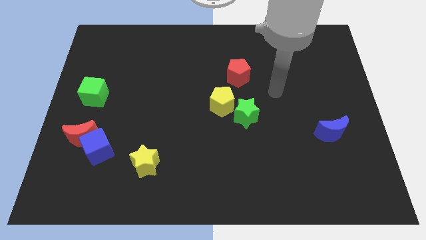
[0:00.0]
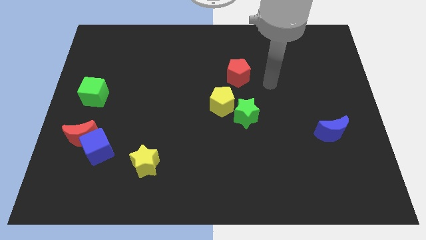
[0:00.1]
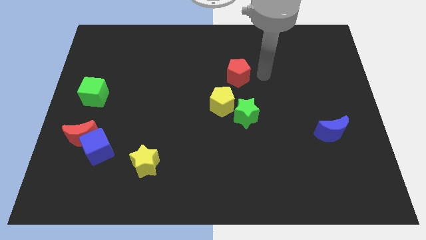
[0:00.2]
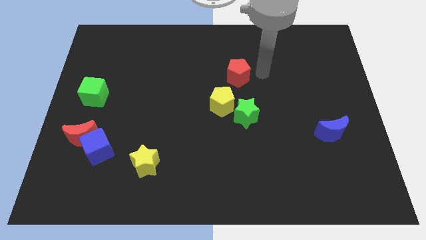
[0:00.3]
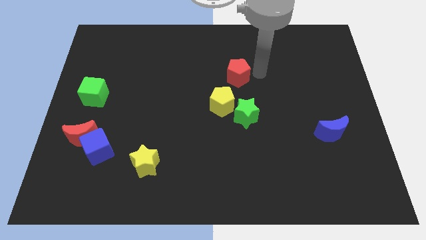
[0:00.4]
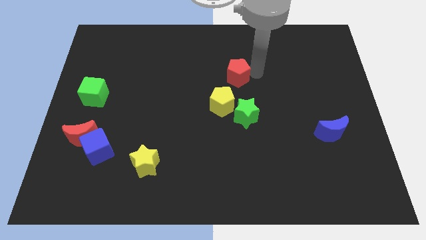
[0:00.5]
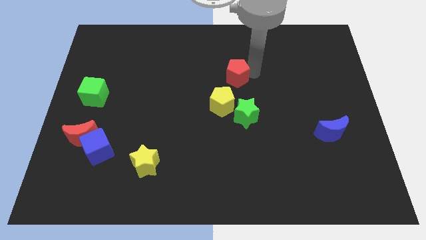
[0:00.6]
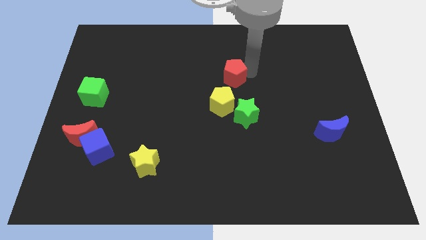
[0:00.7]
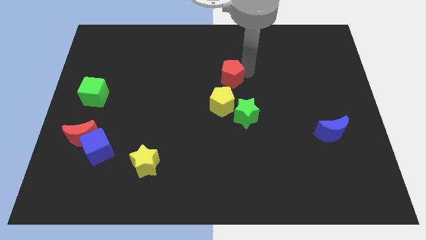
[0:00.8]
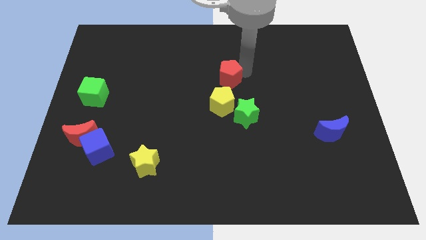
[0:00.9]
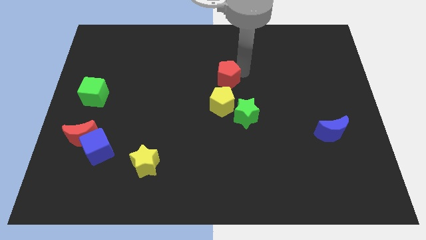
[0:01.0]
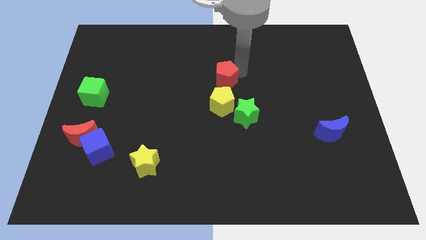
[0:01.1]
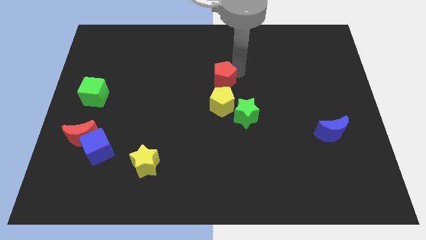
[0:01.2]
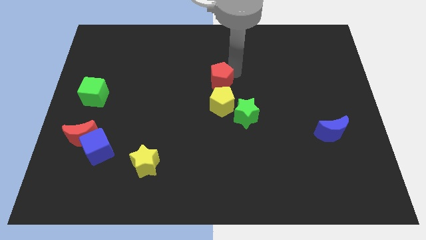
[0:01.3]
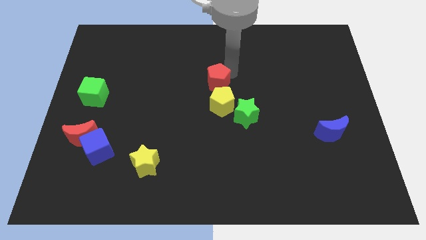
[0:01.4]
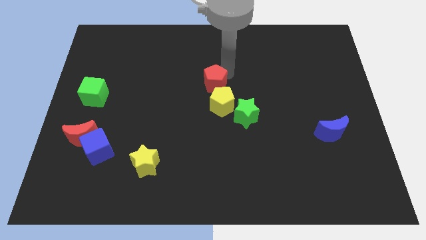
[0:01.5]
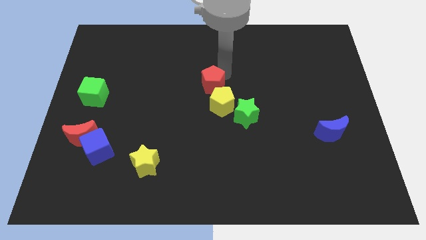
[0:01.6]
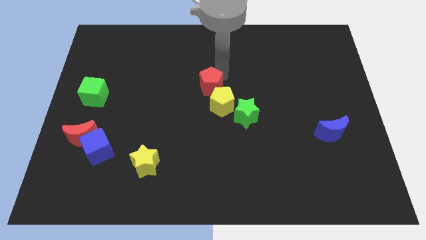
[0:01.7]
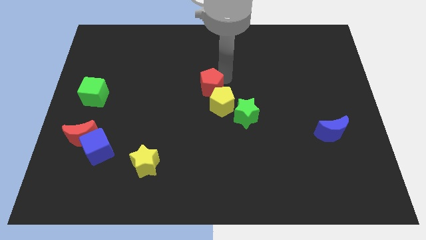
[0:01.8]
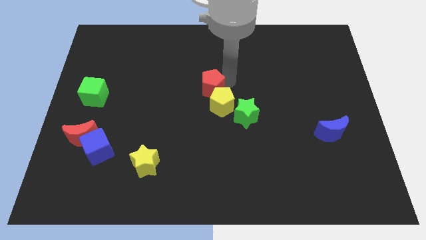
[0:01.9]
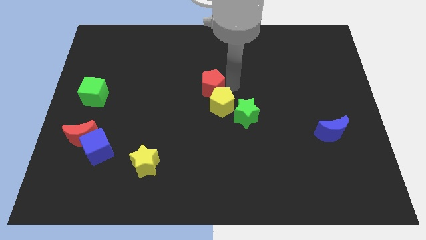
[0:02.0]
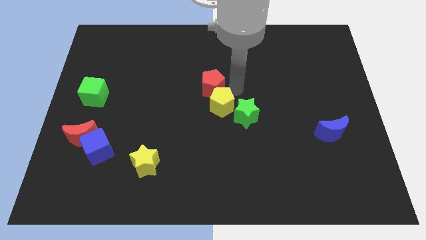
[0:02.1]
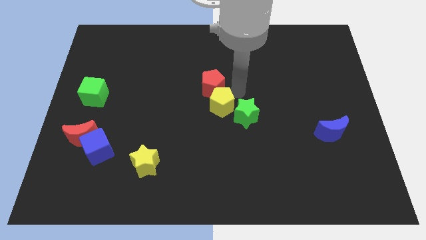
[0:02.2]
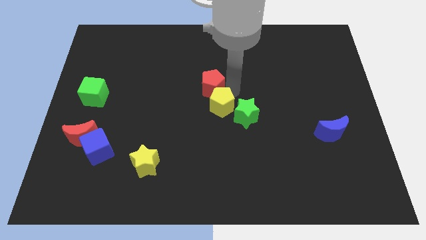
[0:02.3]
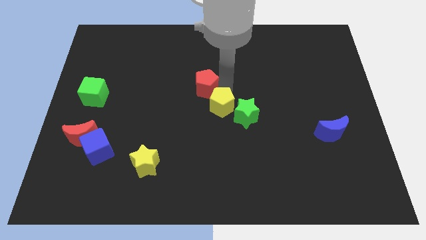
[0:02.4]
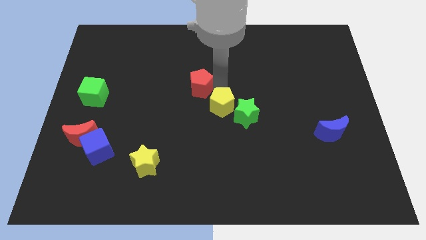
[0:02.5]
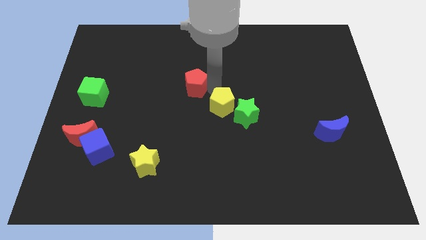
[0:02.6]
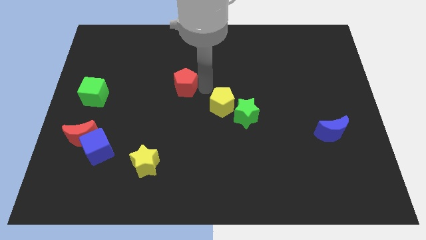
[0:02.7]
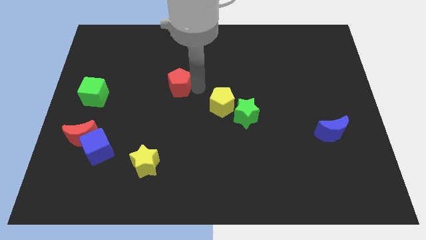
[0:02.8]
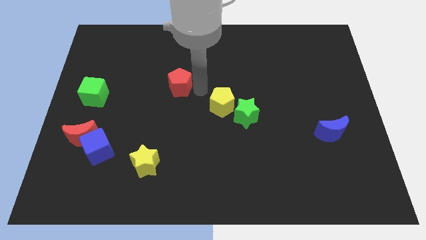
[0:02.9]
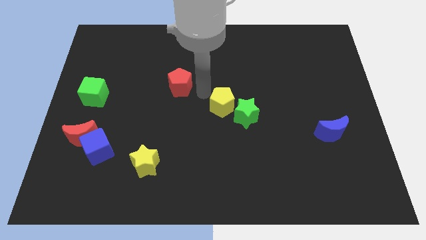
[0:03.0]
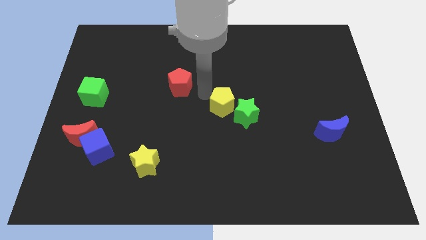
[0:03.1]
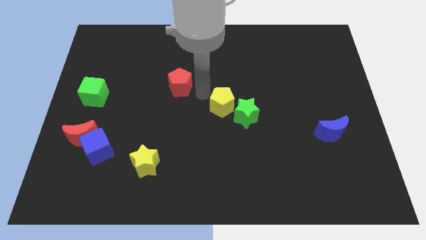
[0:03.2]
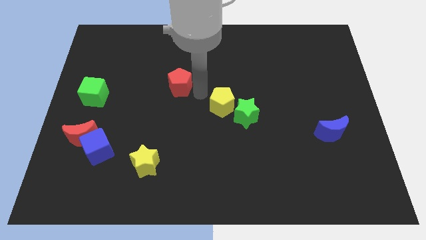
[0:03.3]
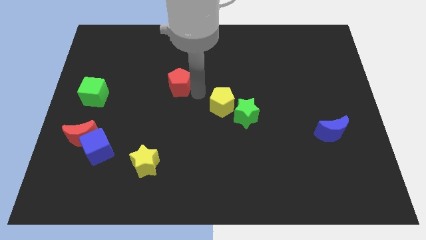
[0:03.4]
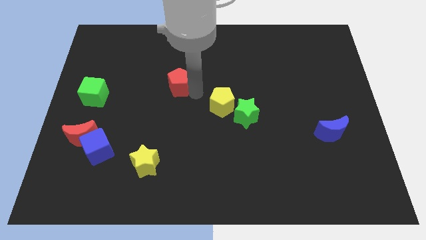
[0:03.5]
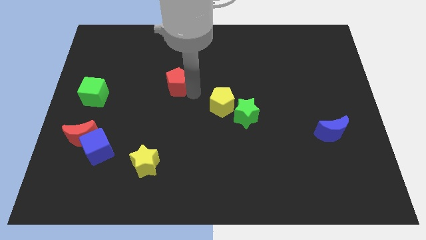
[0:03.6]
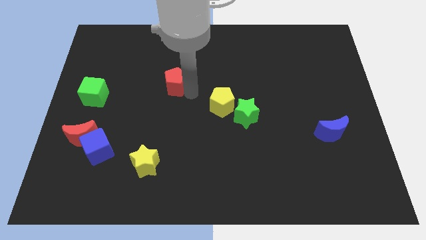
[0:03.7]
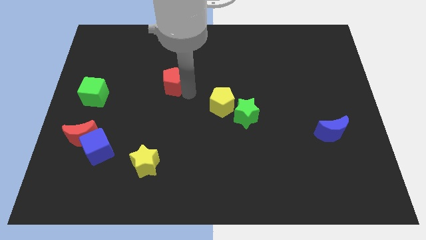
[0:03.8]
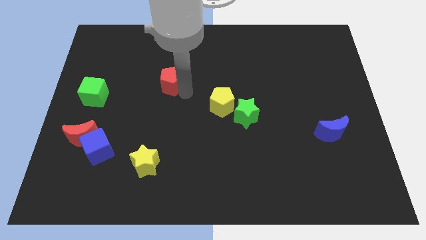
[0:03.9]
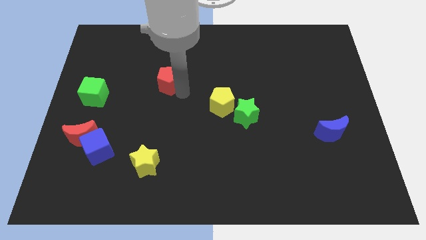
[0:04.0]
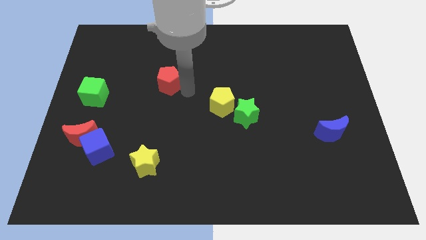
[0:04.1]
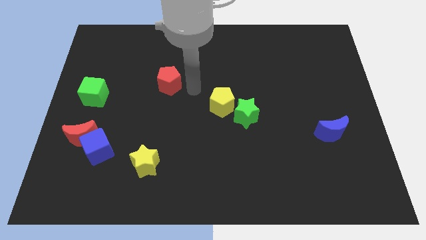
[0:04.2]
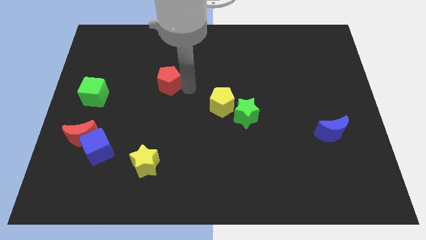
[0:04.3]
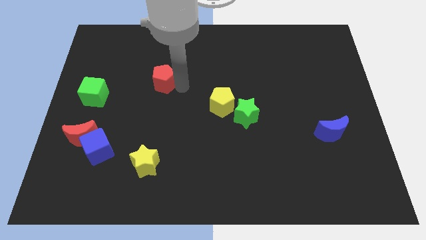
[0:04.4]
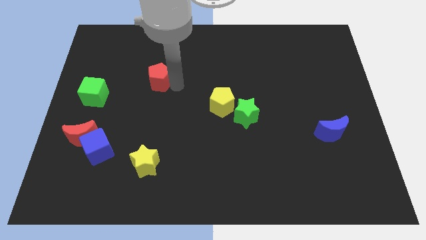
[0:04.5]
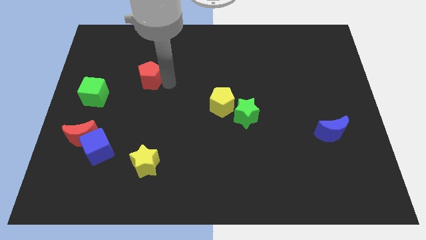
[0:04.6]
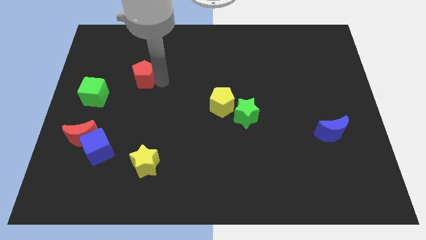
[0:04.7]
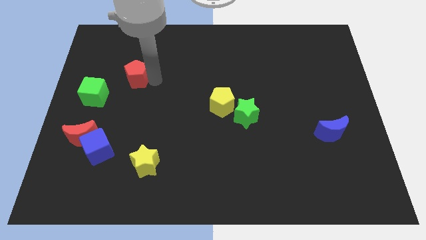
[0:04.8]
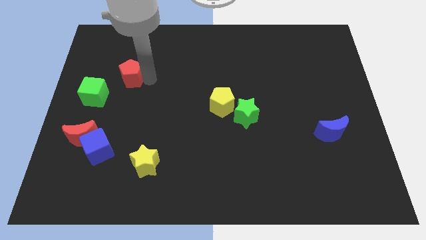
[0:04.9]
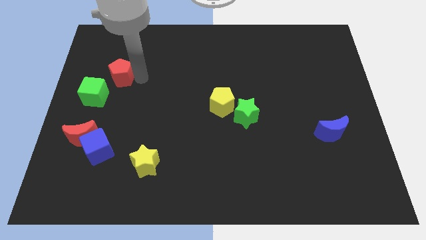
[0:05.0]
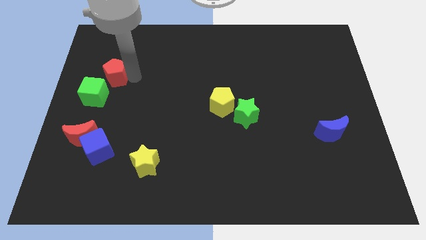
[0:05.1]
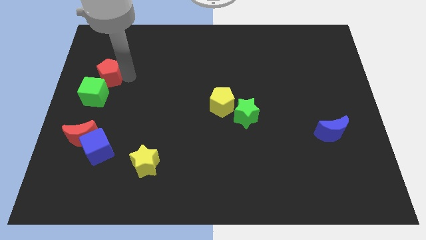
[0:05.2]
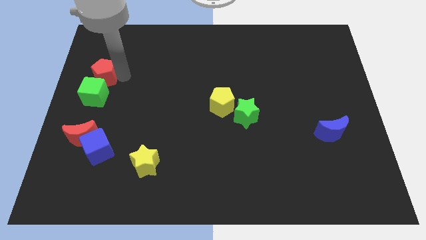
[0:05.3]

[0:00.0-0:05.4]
push the red pentagon to the center left
